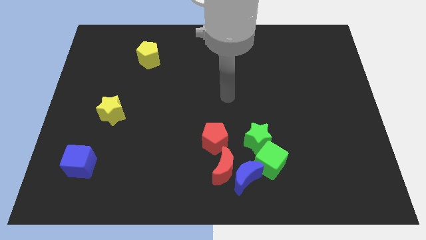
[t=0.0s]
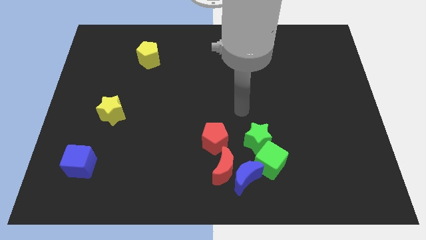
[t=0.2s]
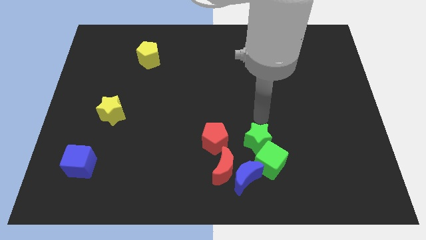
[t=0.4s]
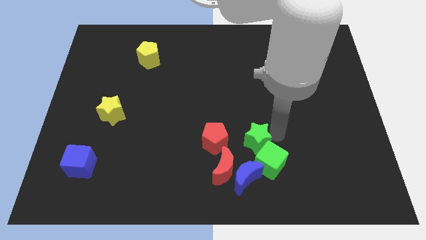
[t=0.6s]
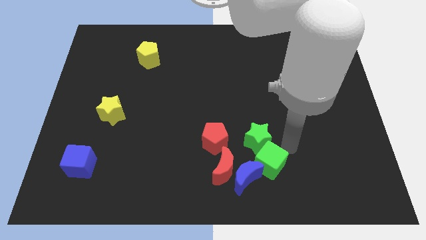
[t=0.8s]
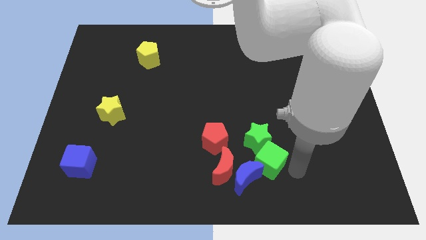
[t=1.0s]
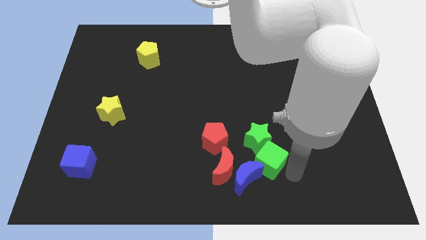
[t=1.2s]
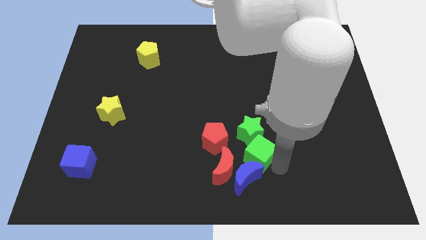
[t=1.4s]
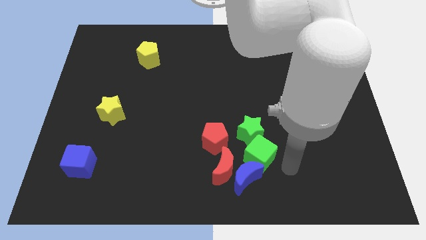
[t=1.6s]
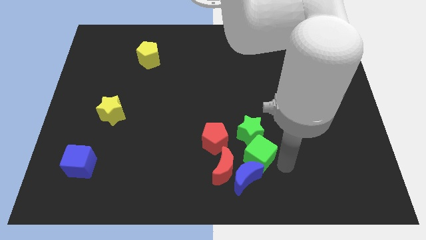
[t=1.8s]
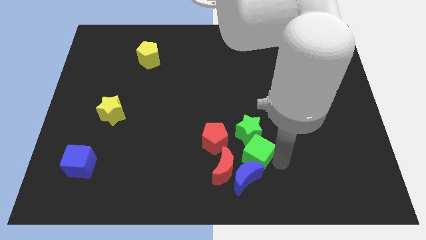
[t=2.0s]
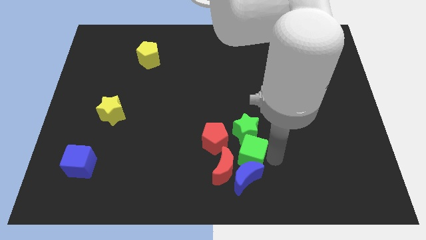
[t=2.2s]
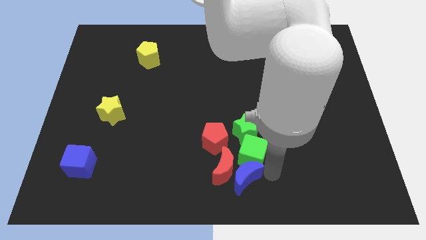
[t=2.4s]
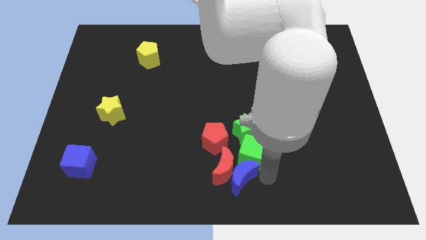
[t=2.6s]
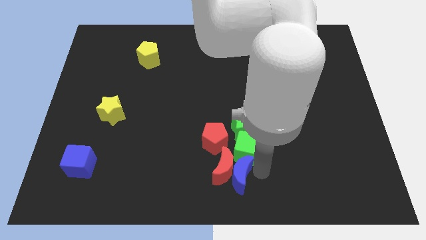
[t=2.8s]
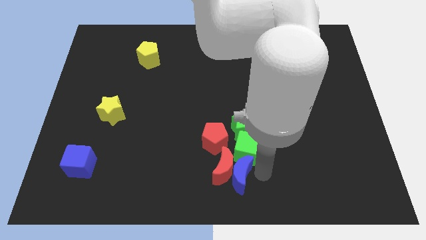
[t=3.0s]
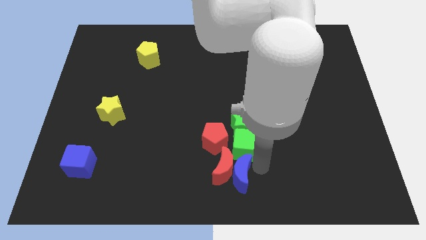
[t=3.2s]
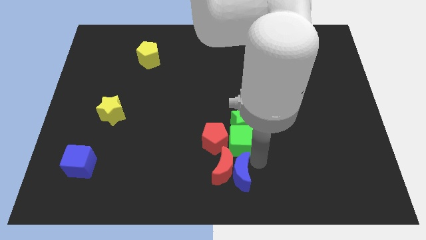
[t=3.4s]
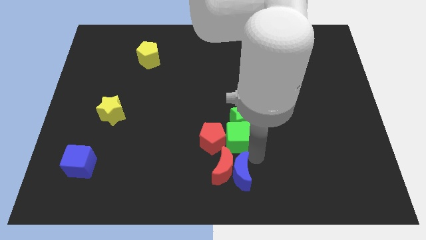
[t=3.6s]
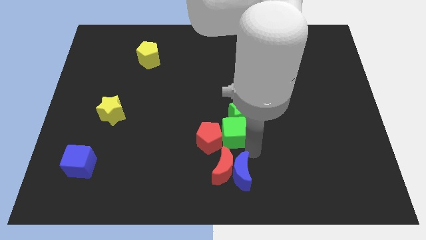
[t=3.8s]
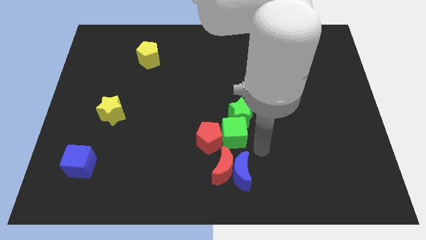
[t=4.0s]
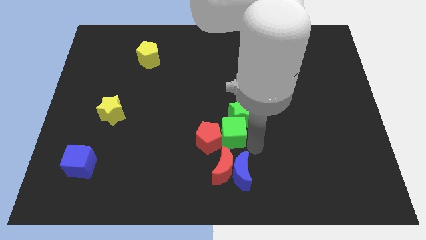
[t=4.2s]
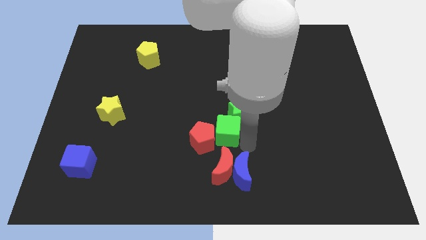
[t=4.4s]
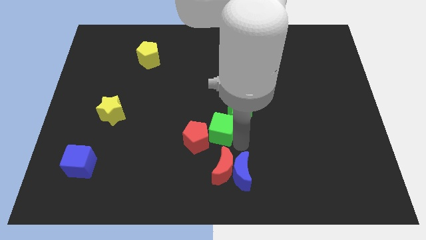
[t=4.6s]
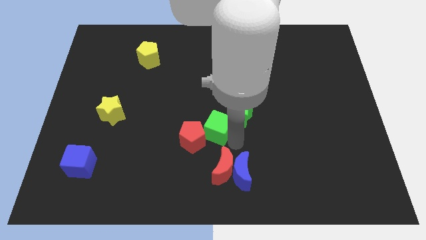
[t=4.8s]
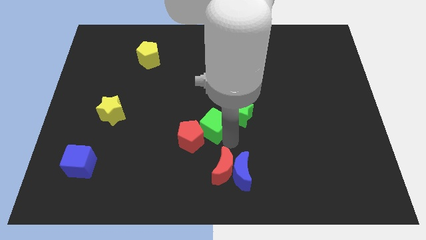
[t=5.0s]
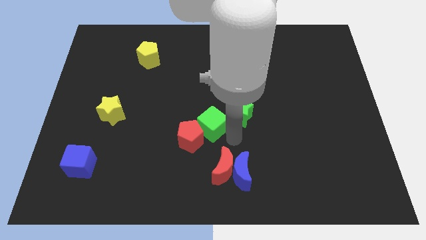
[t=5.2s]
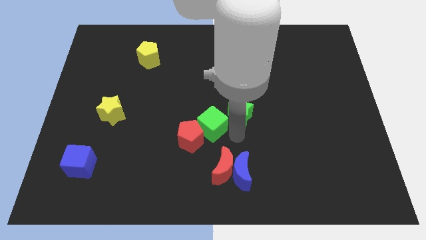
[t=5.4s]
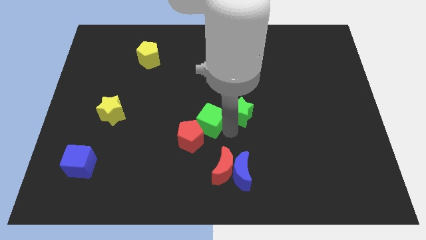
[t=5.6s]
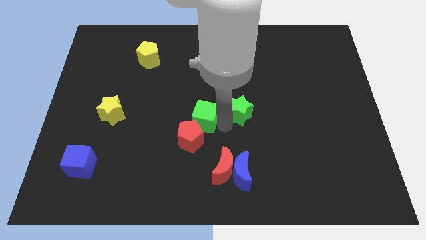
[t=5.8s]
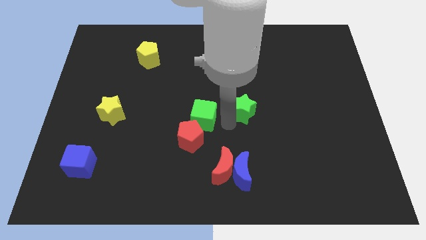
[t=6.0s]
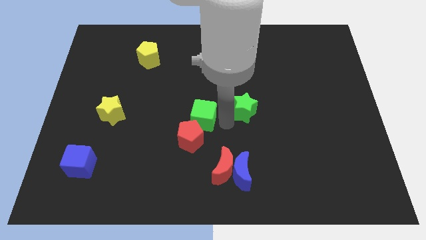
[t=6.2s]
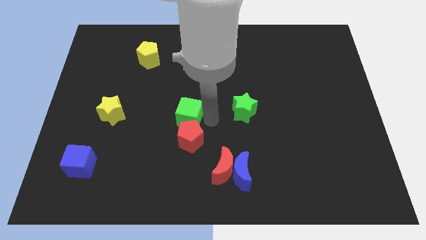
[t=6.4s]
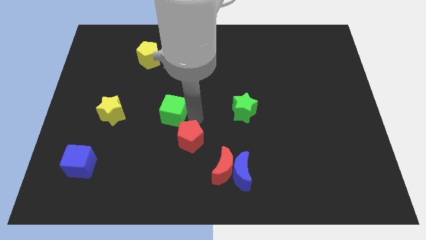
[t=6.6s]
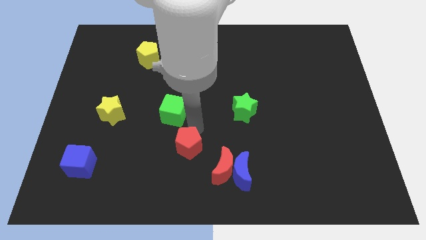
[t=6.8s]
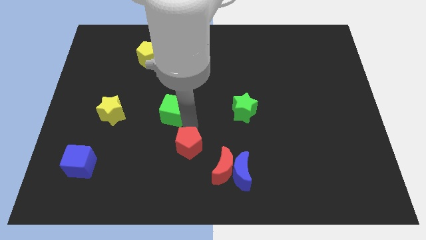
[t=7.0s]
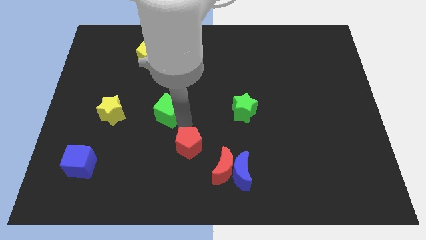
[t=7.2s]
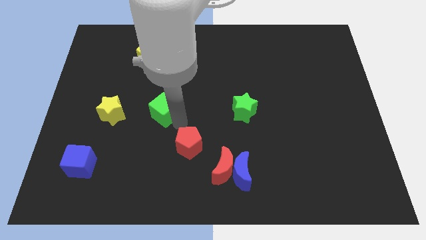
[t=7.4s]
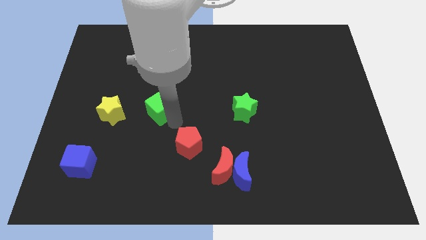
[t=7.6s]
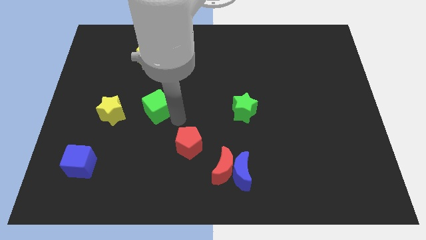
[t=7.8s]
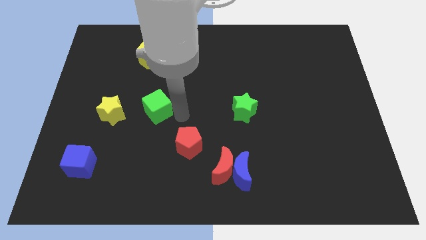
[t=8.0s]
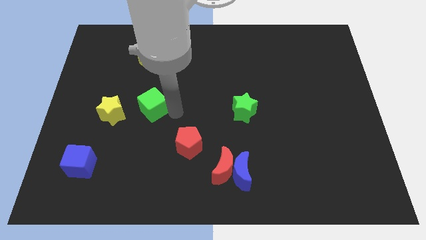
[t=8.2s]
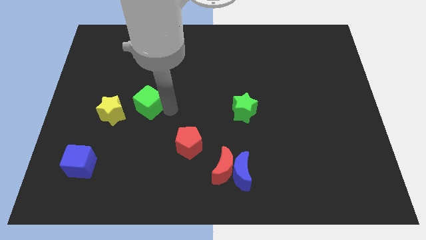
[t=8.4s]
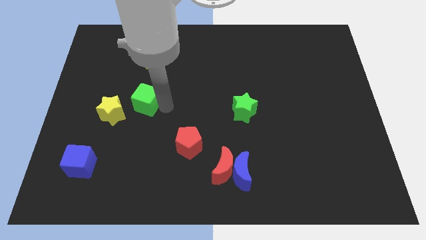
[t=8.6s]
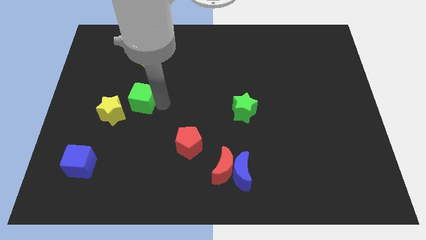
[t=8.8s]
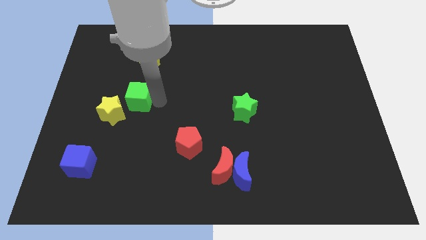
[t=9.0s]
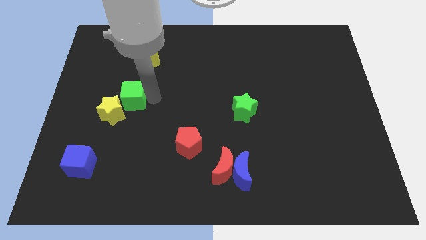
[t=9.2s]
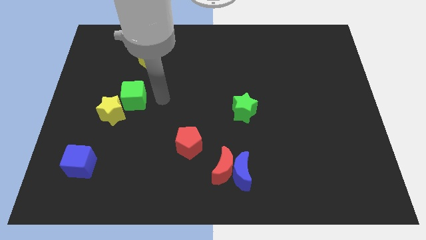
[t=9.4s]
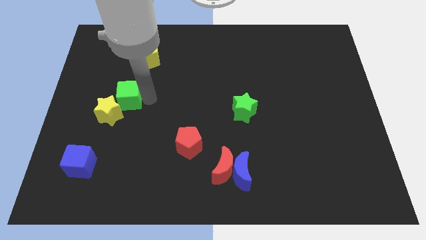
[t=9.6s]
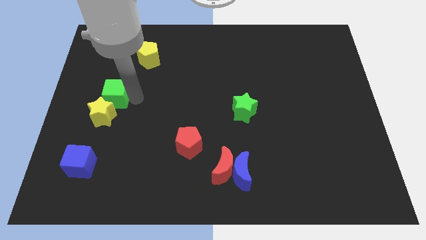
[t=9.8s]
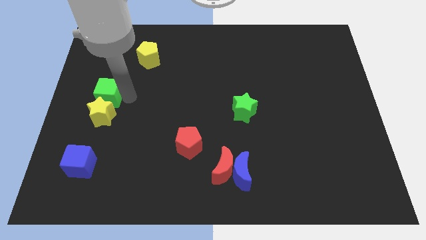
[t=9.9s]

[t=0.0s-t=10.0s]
move the green cube to the top left of the yellow star

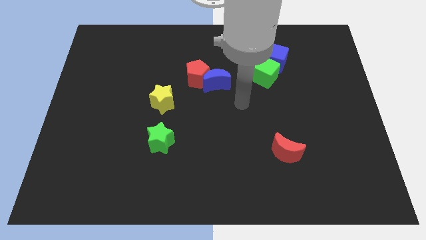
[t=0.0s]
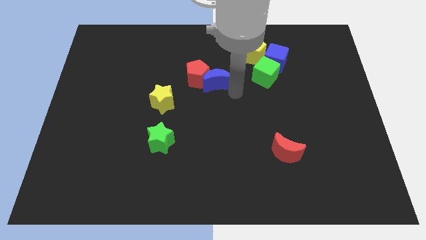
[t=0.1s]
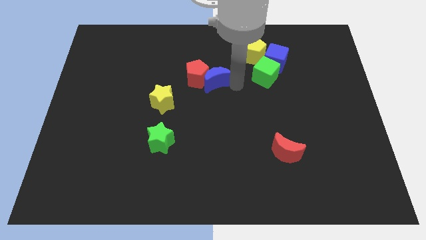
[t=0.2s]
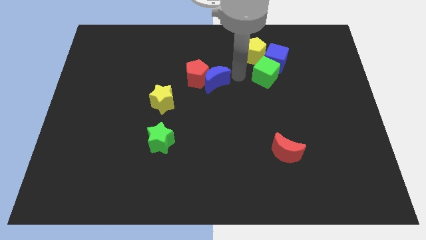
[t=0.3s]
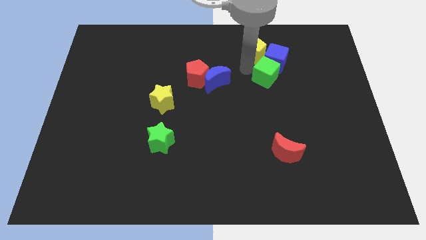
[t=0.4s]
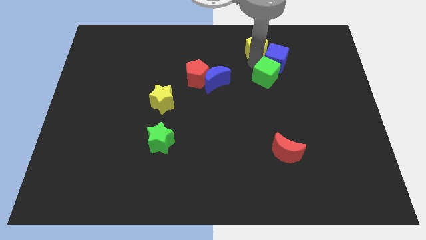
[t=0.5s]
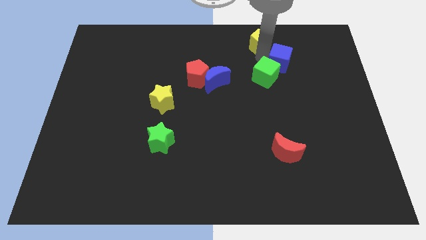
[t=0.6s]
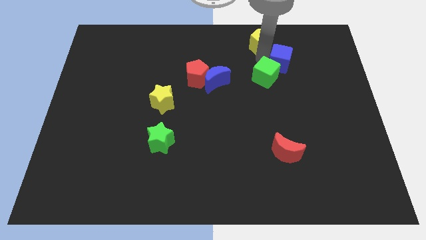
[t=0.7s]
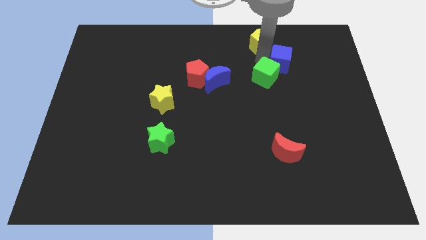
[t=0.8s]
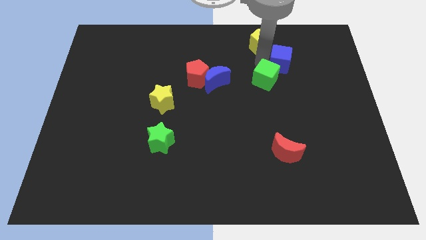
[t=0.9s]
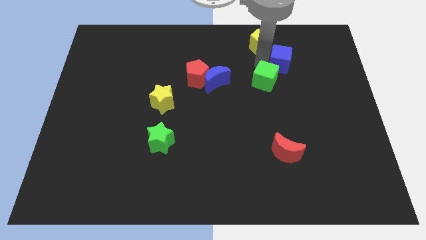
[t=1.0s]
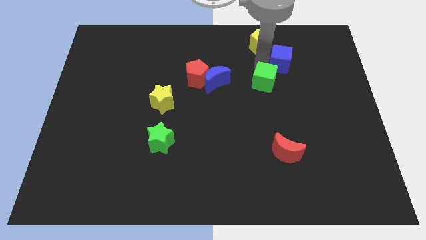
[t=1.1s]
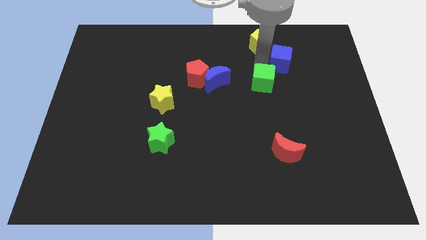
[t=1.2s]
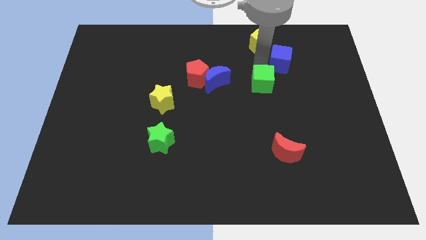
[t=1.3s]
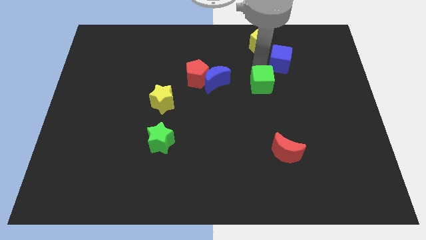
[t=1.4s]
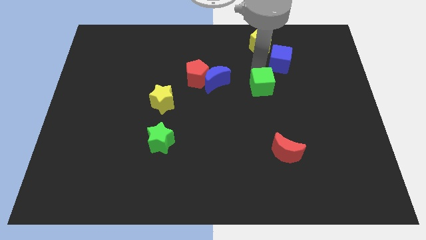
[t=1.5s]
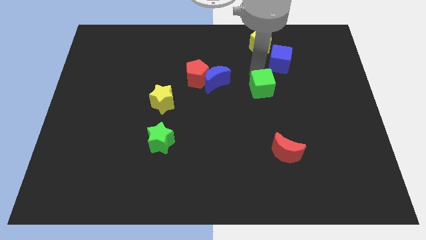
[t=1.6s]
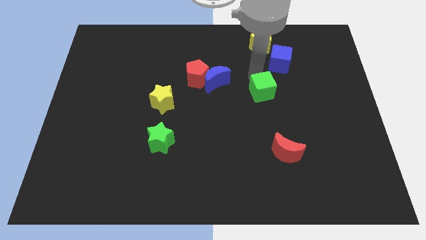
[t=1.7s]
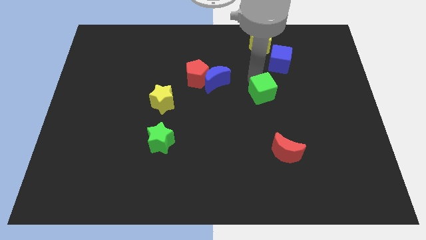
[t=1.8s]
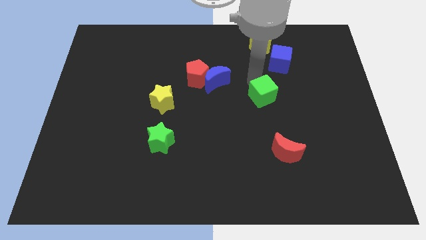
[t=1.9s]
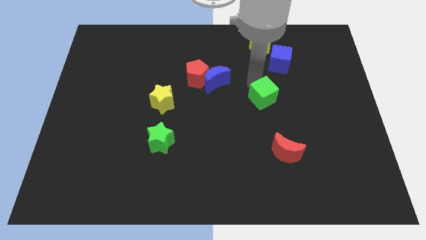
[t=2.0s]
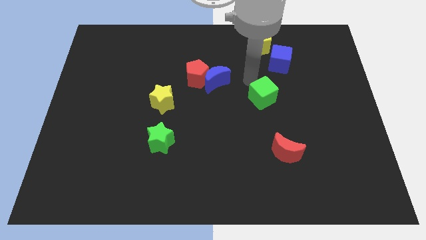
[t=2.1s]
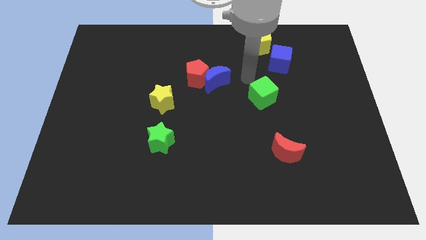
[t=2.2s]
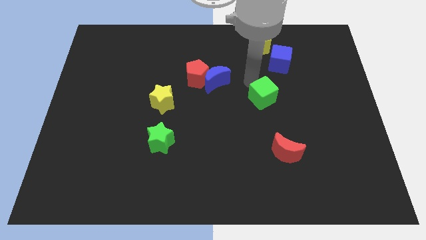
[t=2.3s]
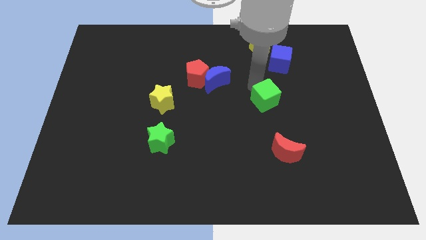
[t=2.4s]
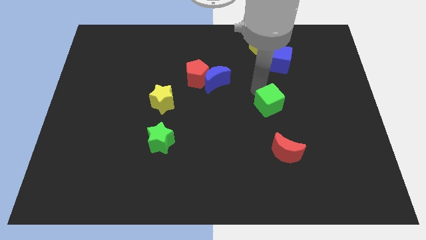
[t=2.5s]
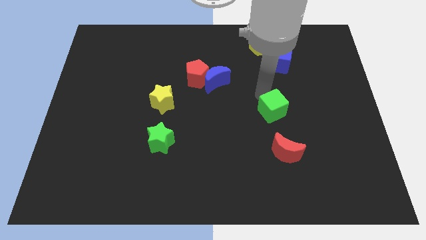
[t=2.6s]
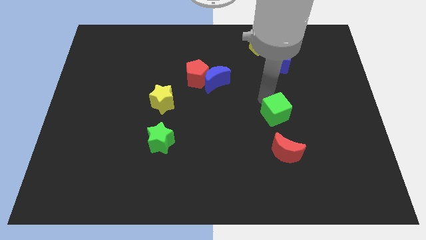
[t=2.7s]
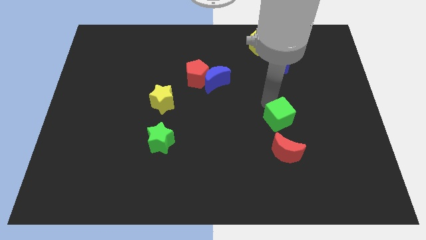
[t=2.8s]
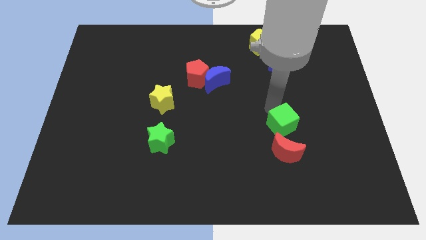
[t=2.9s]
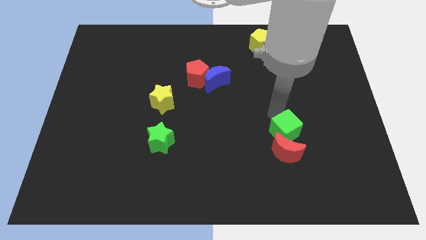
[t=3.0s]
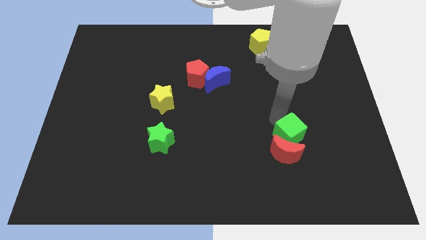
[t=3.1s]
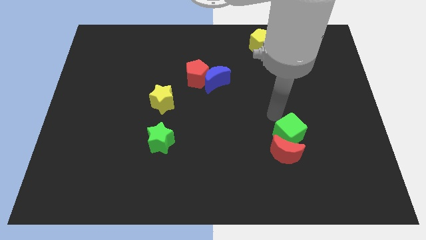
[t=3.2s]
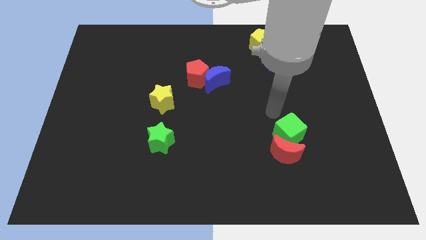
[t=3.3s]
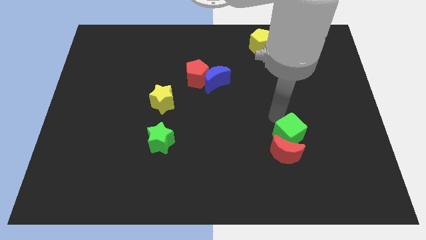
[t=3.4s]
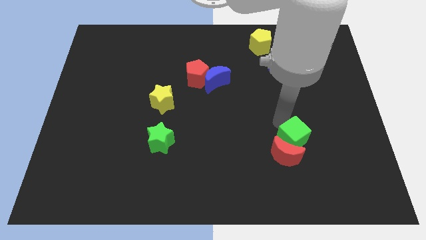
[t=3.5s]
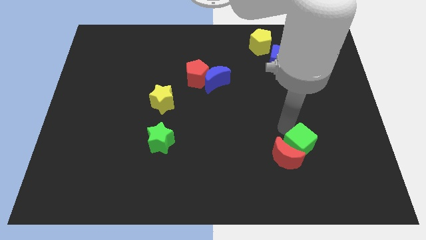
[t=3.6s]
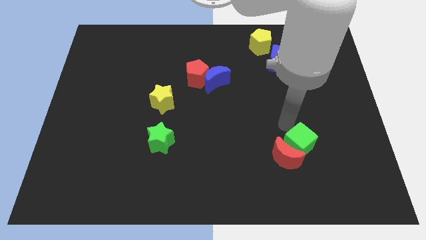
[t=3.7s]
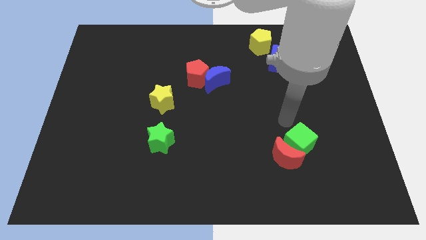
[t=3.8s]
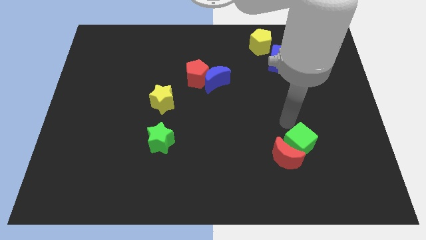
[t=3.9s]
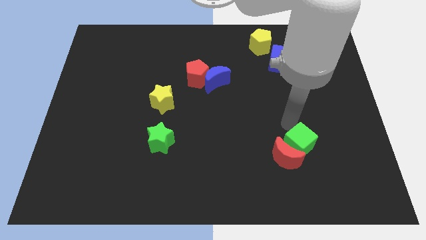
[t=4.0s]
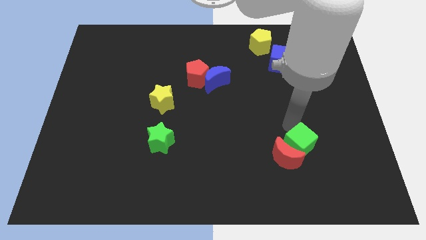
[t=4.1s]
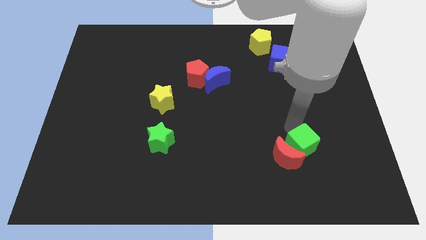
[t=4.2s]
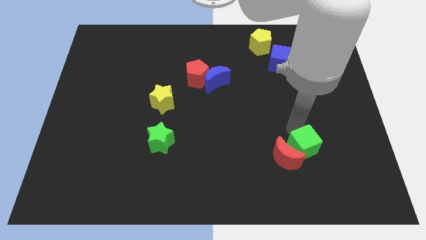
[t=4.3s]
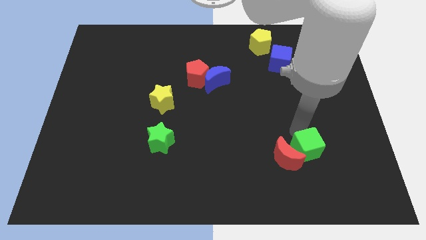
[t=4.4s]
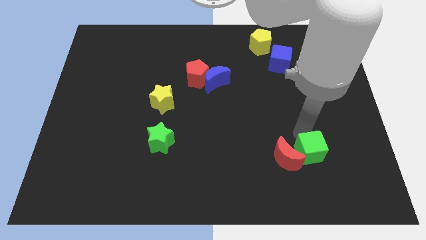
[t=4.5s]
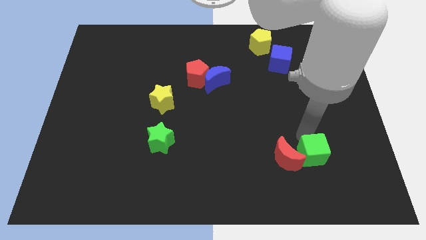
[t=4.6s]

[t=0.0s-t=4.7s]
move the green cube to the bottom right of the red moon
